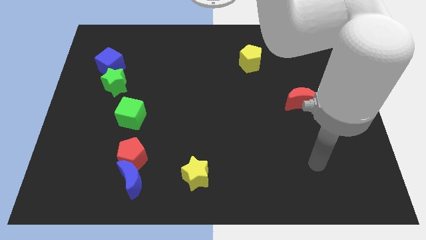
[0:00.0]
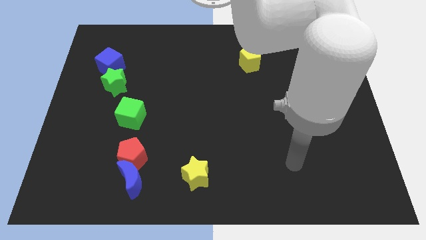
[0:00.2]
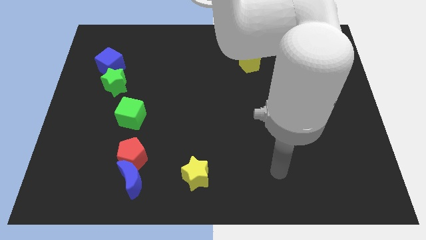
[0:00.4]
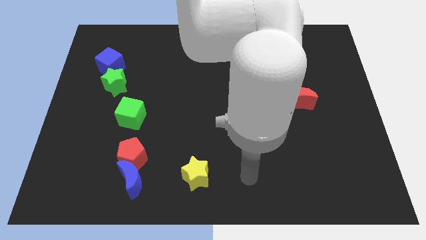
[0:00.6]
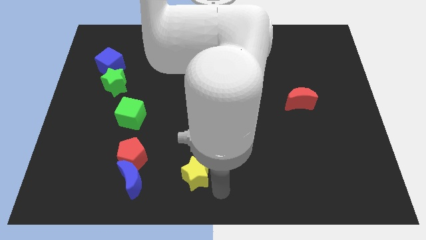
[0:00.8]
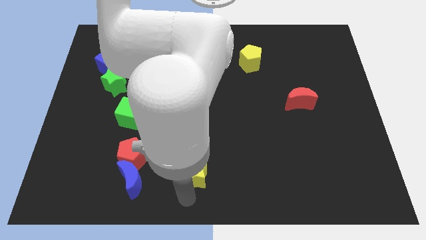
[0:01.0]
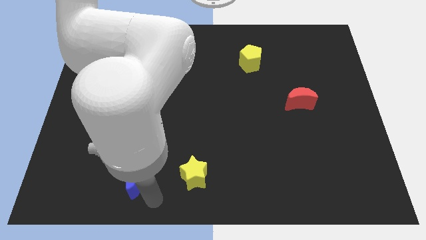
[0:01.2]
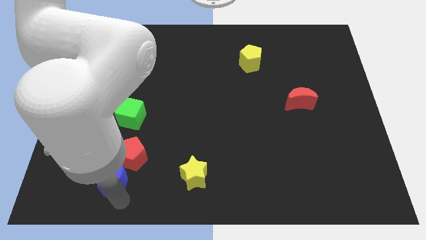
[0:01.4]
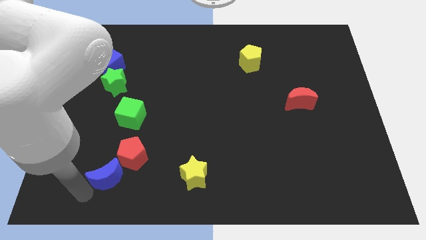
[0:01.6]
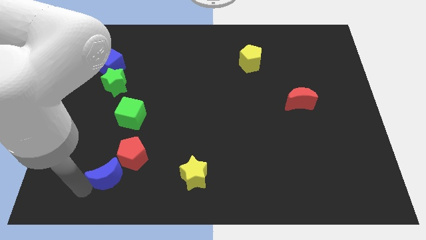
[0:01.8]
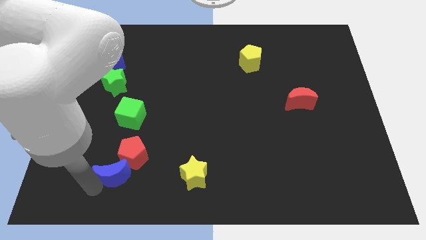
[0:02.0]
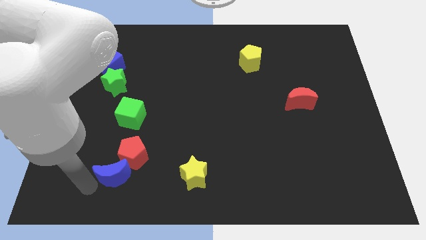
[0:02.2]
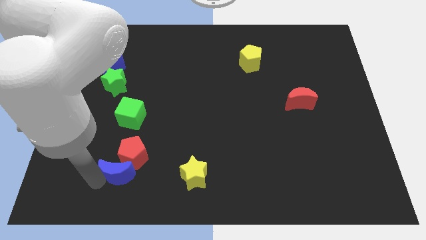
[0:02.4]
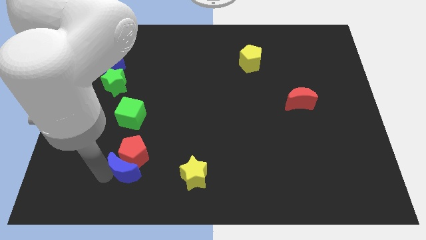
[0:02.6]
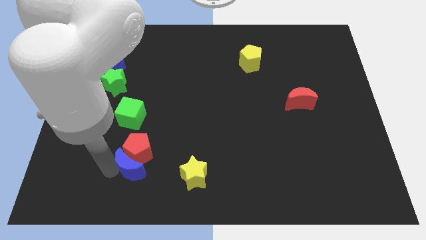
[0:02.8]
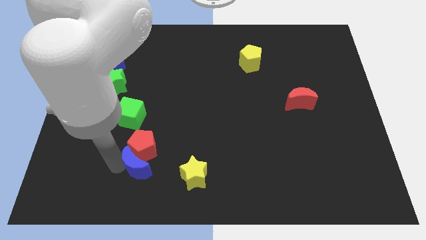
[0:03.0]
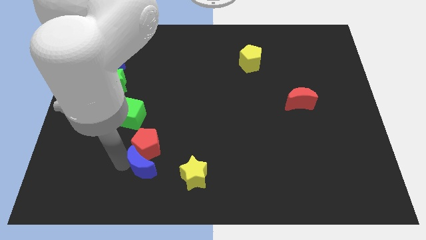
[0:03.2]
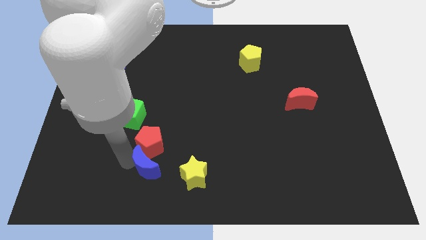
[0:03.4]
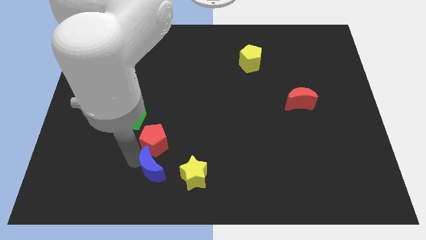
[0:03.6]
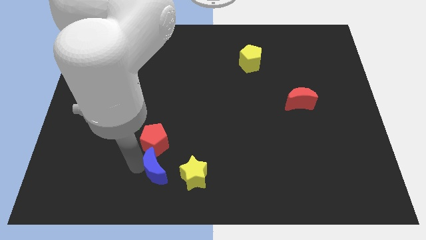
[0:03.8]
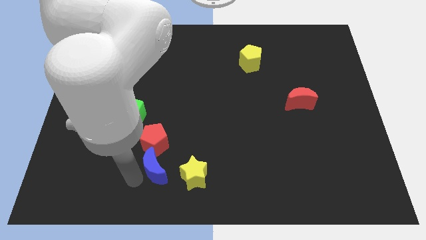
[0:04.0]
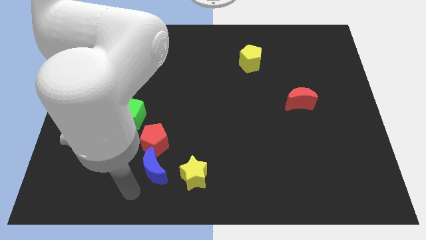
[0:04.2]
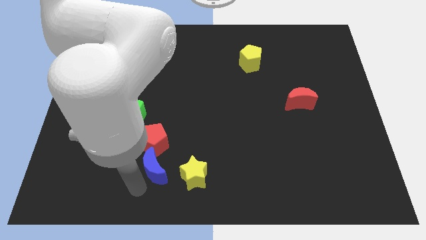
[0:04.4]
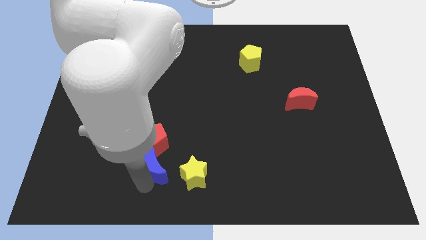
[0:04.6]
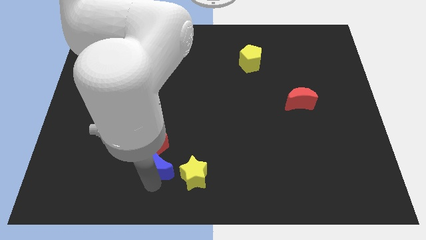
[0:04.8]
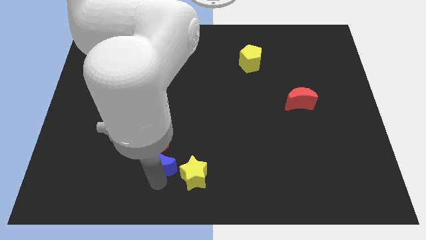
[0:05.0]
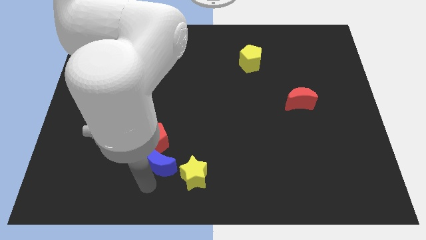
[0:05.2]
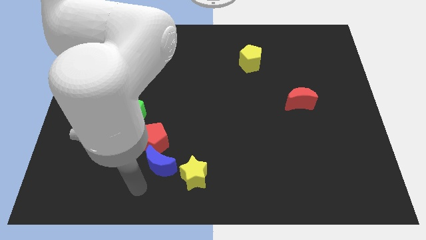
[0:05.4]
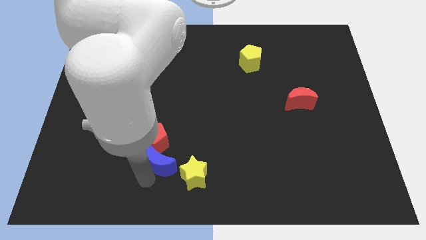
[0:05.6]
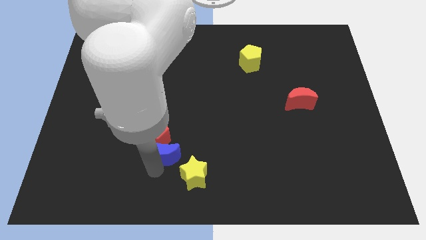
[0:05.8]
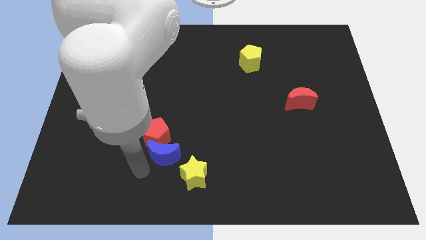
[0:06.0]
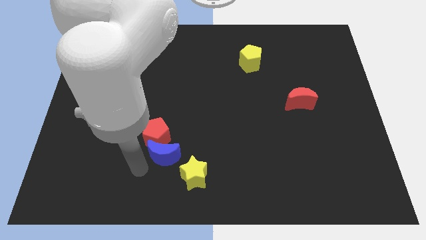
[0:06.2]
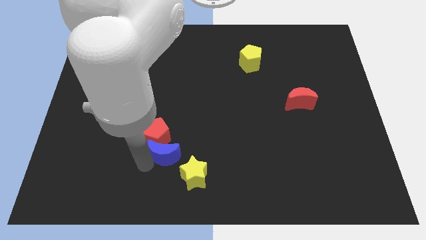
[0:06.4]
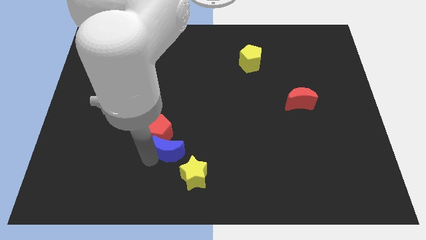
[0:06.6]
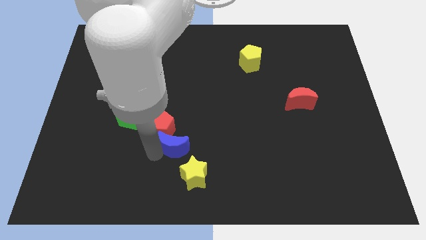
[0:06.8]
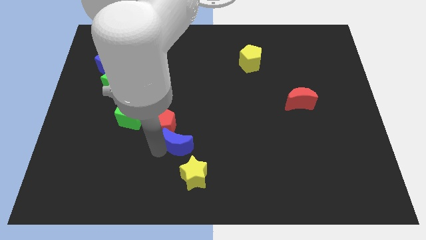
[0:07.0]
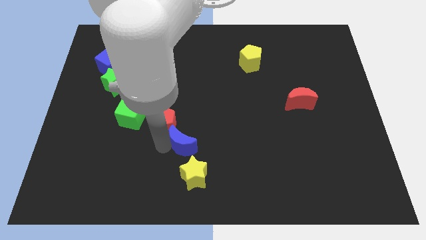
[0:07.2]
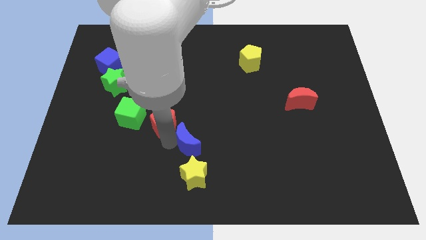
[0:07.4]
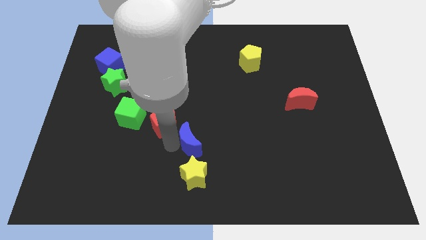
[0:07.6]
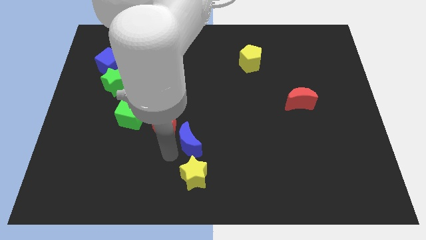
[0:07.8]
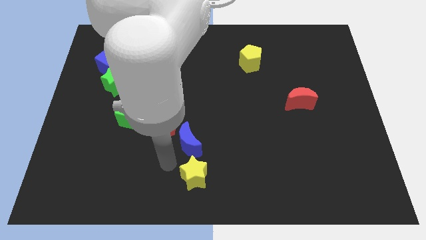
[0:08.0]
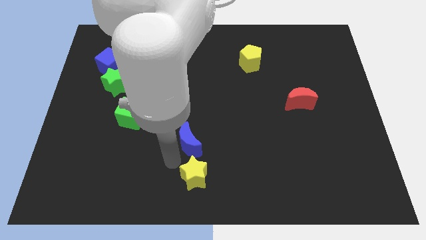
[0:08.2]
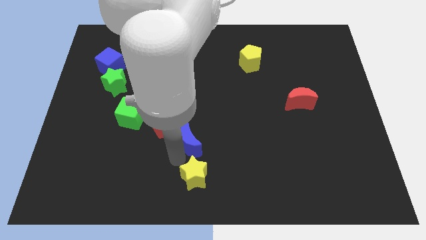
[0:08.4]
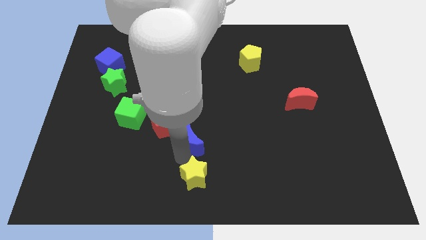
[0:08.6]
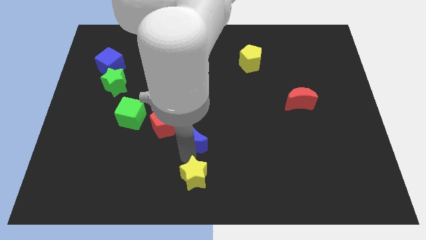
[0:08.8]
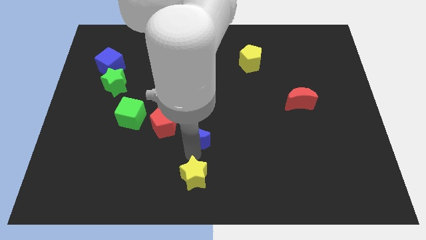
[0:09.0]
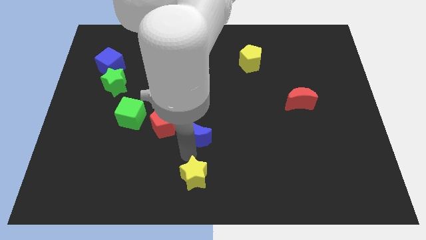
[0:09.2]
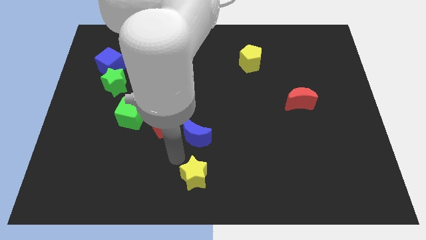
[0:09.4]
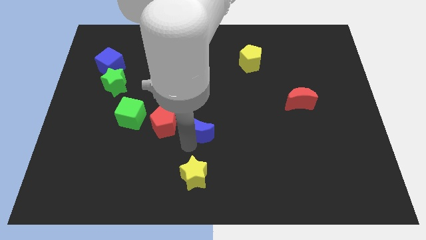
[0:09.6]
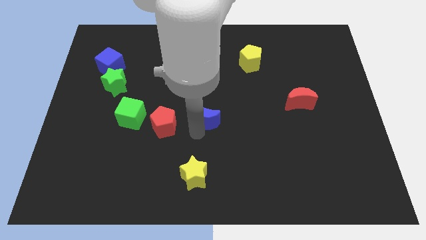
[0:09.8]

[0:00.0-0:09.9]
move the blue moon upwards and to the right

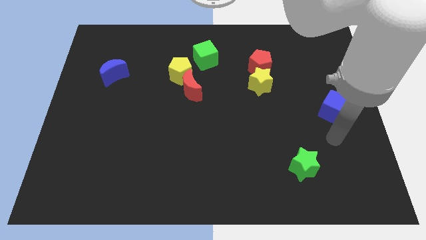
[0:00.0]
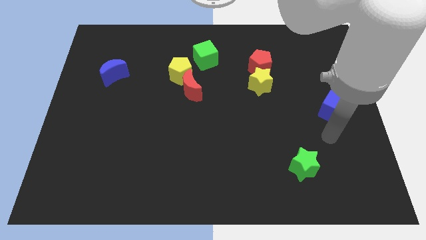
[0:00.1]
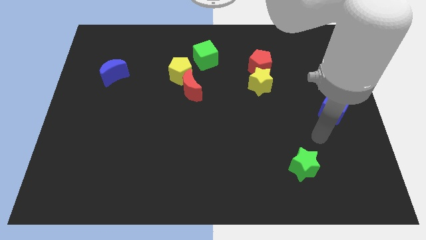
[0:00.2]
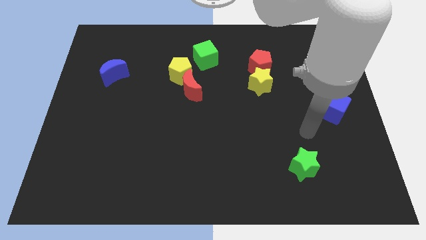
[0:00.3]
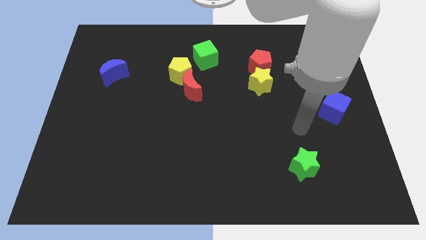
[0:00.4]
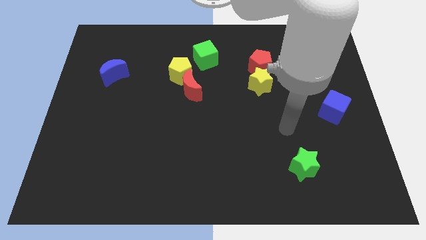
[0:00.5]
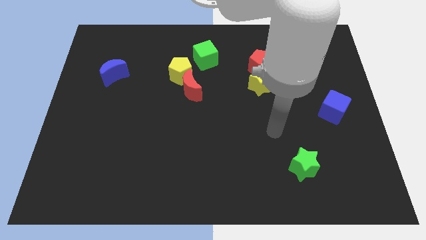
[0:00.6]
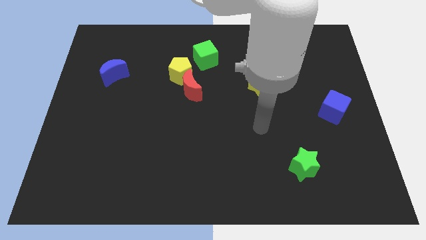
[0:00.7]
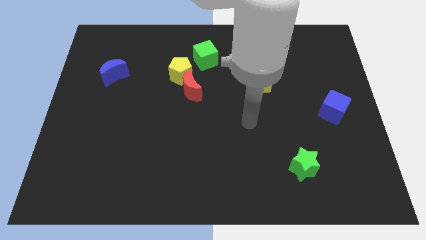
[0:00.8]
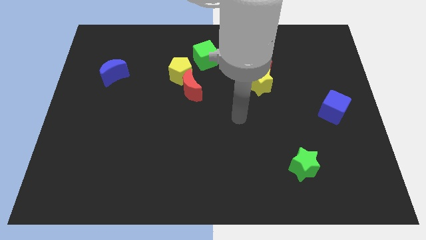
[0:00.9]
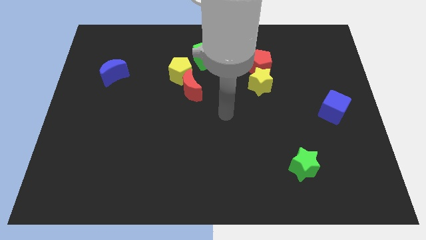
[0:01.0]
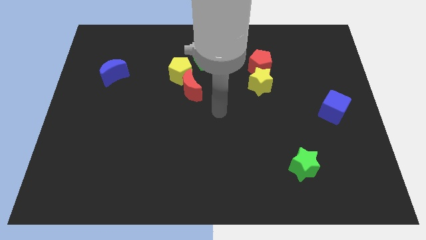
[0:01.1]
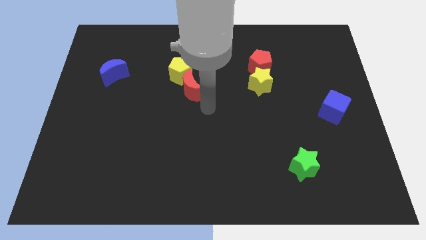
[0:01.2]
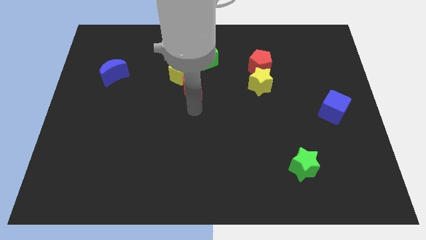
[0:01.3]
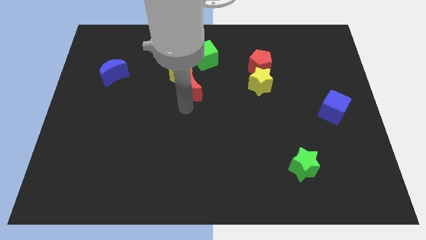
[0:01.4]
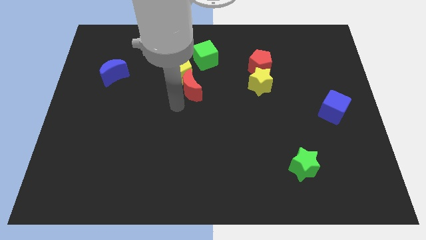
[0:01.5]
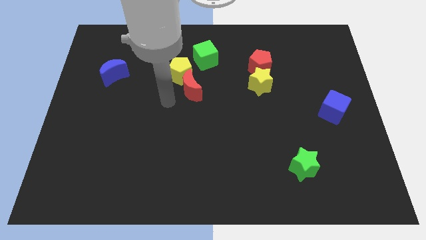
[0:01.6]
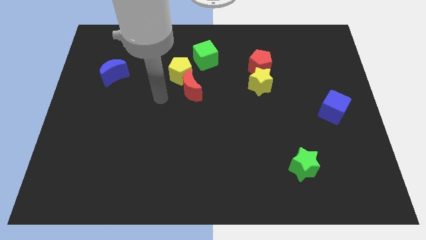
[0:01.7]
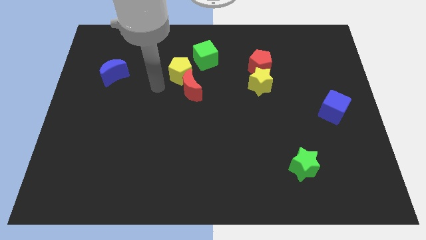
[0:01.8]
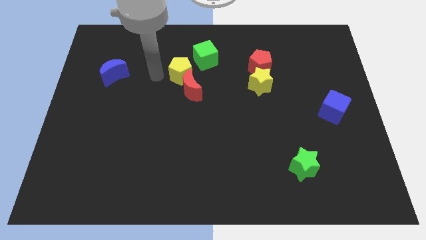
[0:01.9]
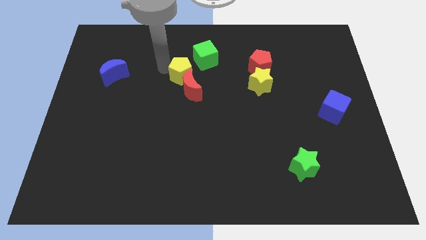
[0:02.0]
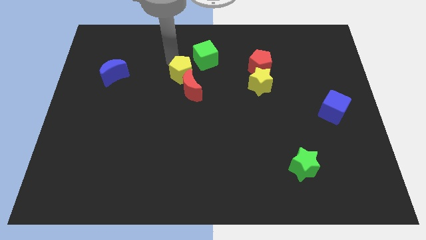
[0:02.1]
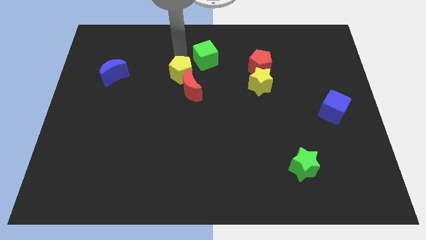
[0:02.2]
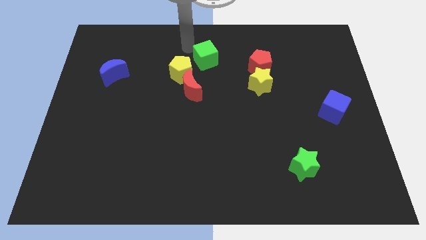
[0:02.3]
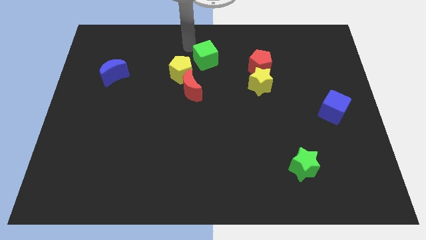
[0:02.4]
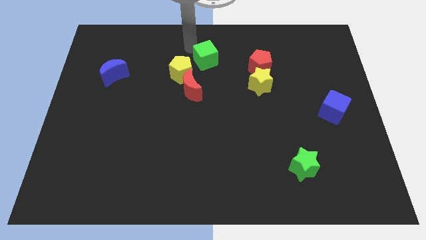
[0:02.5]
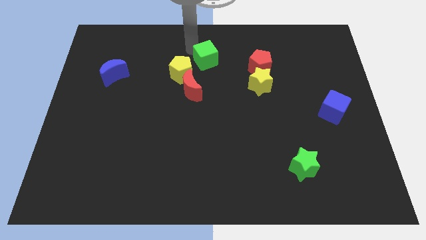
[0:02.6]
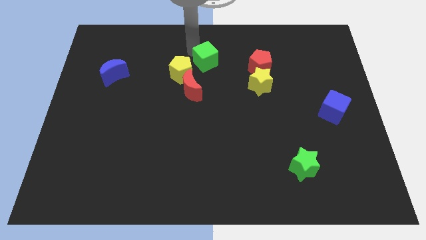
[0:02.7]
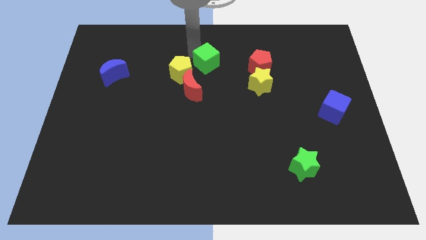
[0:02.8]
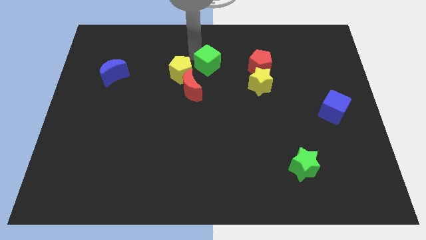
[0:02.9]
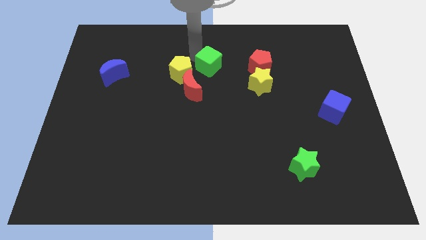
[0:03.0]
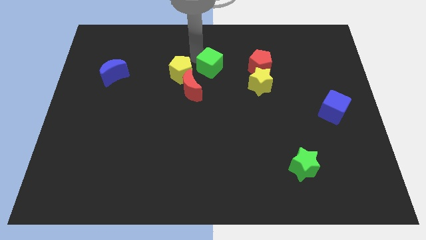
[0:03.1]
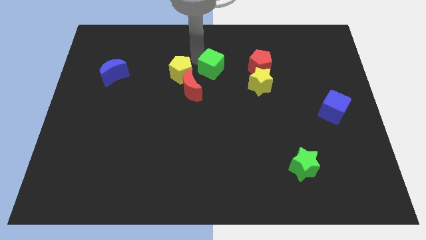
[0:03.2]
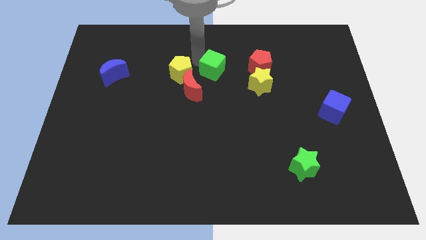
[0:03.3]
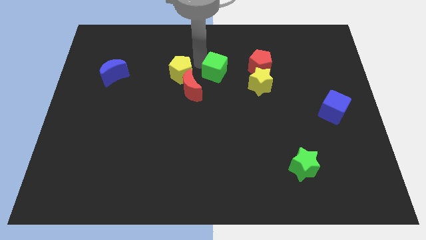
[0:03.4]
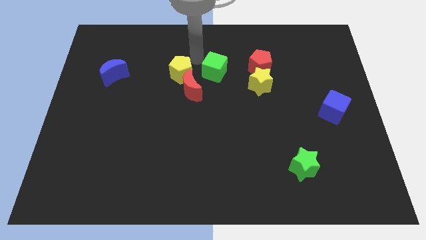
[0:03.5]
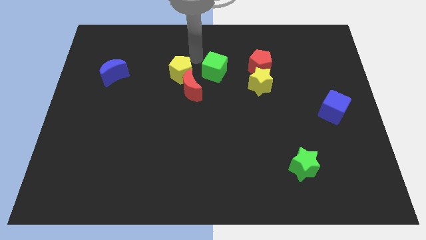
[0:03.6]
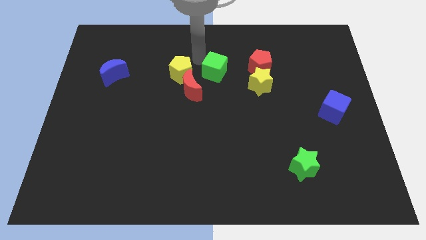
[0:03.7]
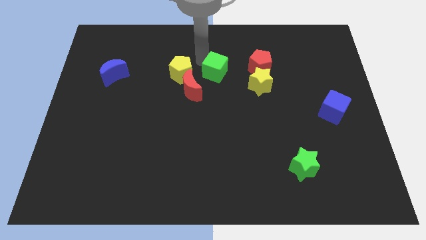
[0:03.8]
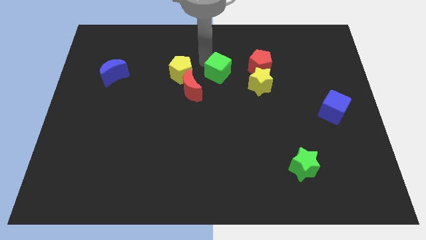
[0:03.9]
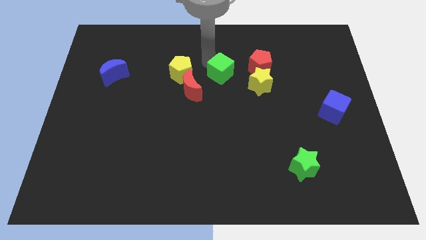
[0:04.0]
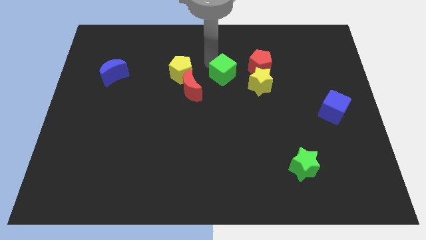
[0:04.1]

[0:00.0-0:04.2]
slide the green cube downwards and to the right a bit
